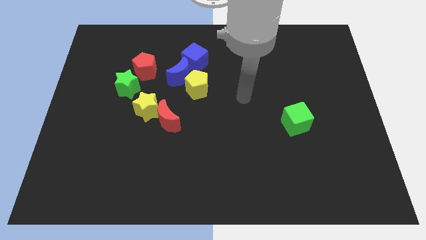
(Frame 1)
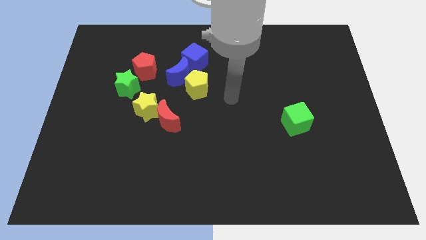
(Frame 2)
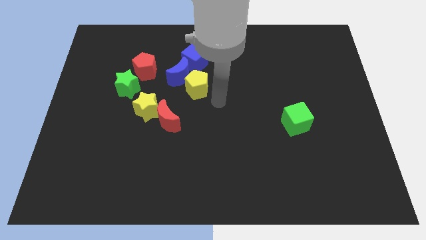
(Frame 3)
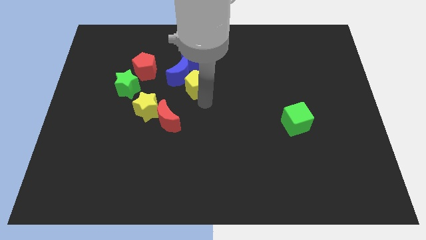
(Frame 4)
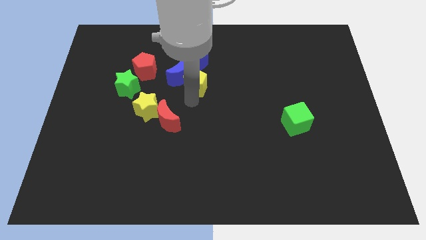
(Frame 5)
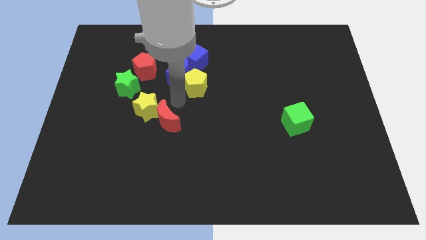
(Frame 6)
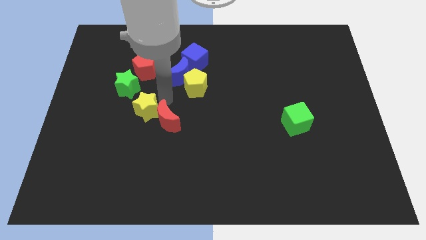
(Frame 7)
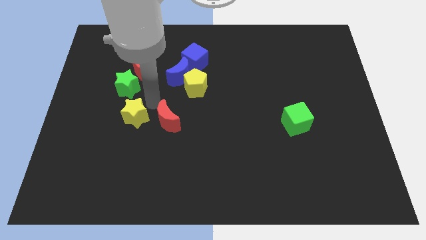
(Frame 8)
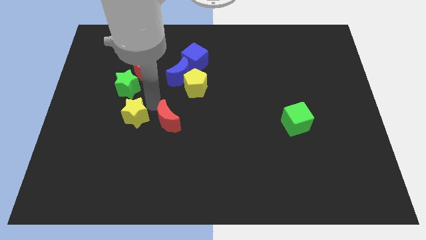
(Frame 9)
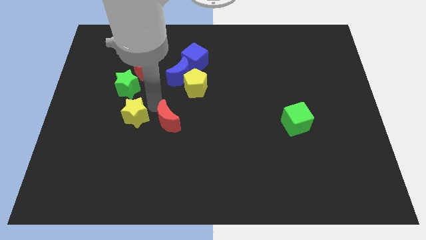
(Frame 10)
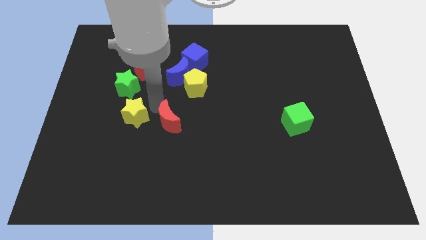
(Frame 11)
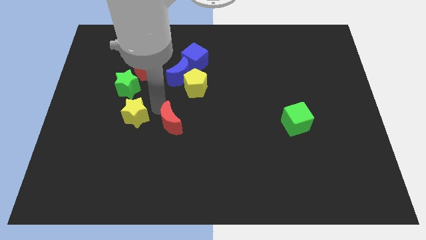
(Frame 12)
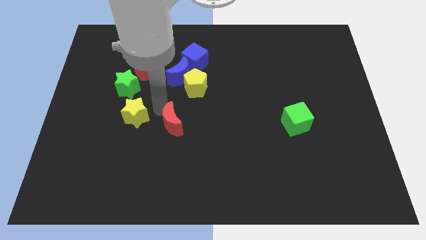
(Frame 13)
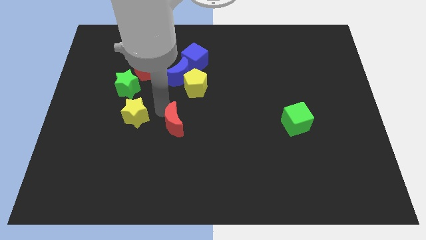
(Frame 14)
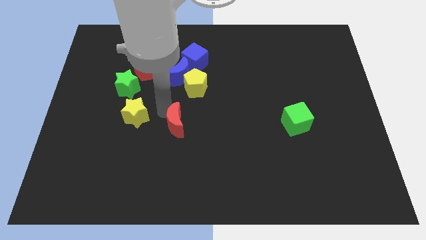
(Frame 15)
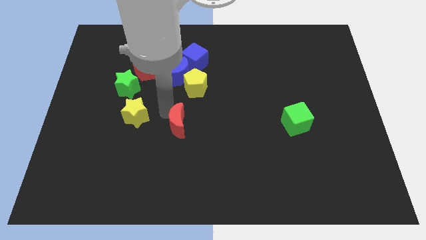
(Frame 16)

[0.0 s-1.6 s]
separate the red moon from the yellow star

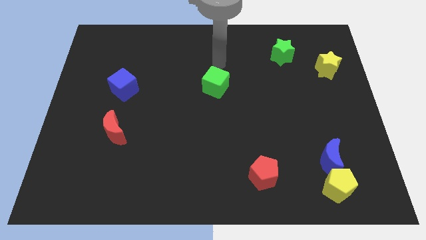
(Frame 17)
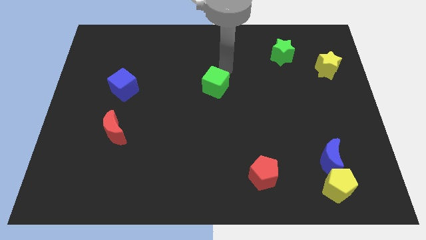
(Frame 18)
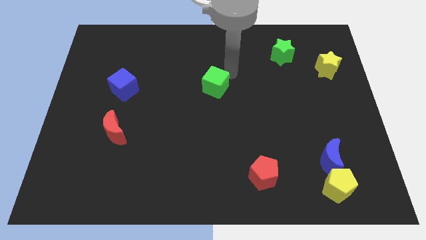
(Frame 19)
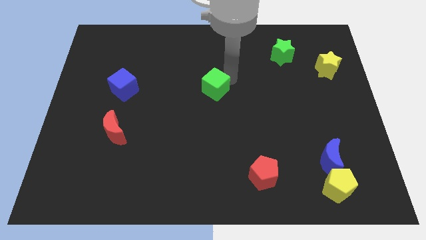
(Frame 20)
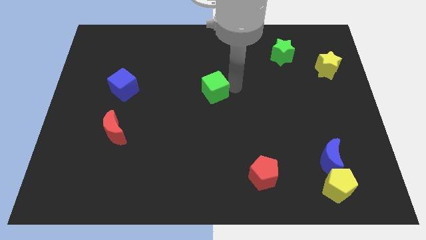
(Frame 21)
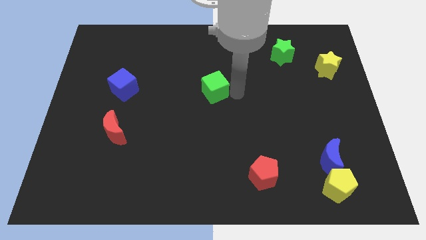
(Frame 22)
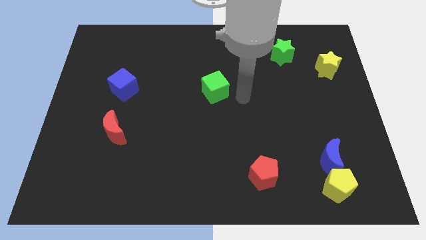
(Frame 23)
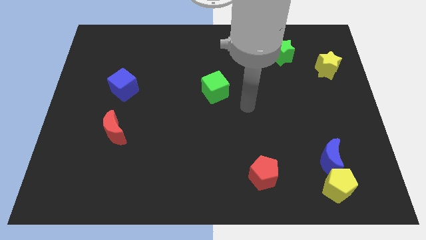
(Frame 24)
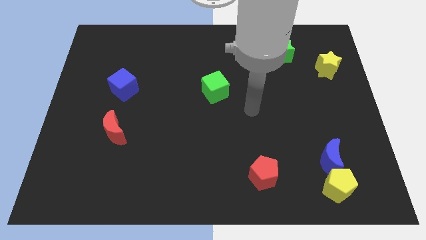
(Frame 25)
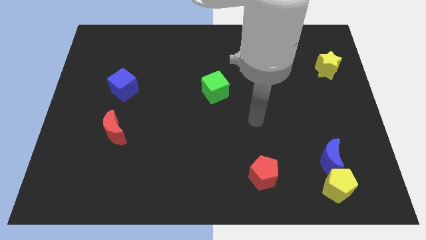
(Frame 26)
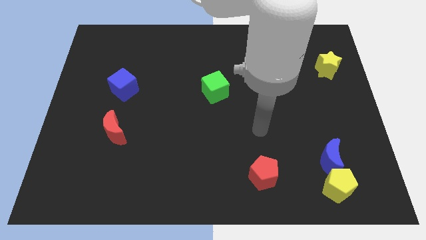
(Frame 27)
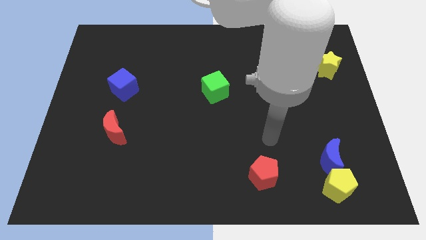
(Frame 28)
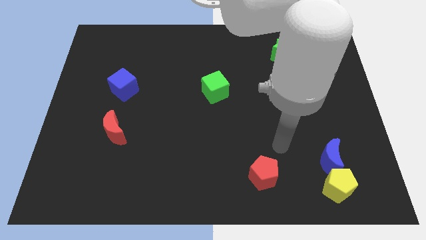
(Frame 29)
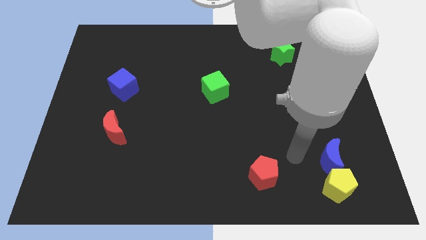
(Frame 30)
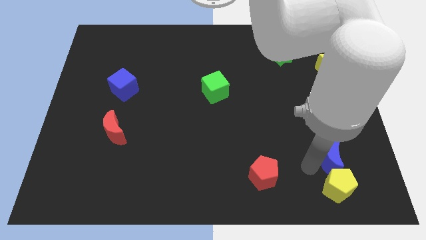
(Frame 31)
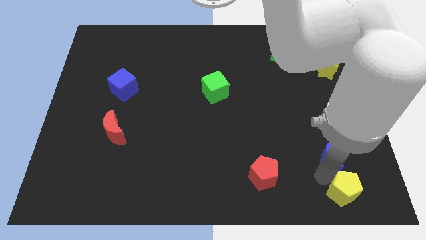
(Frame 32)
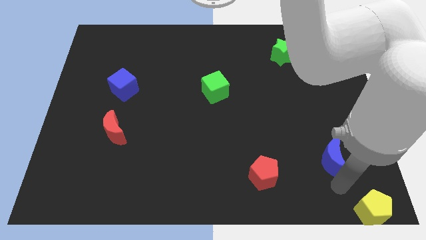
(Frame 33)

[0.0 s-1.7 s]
separate the blue moon from the yellow pentagon

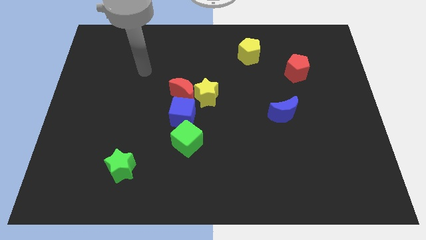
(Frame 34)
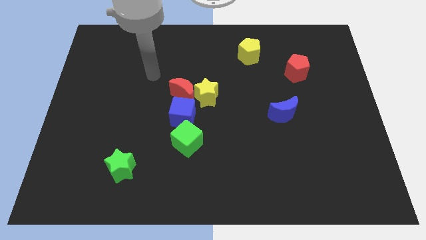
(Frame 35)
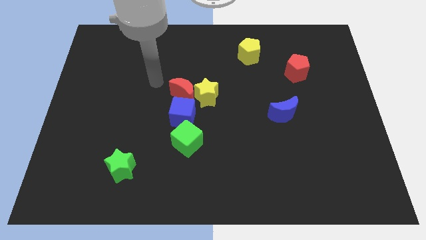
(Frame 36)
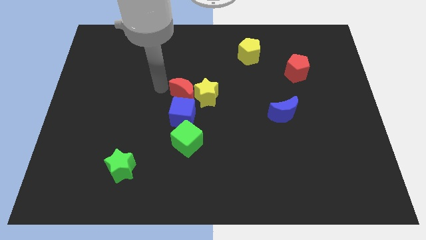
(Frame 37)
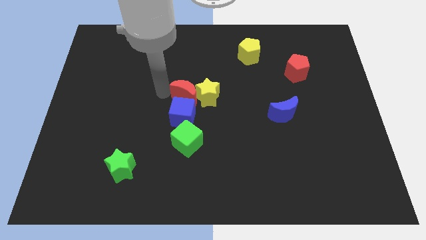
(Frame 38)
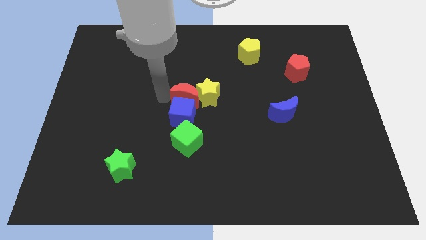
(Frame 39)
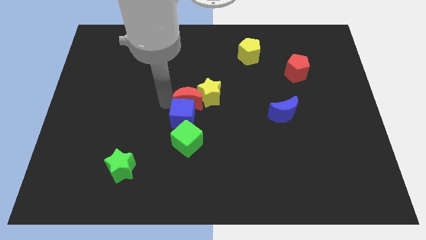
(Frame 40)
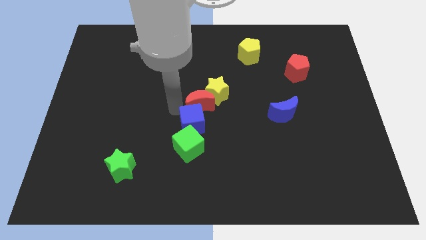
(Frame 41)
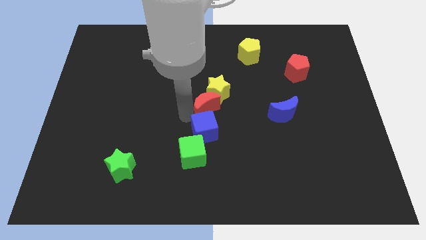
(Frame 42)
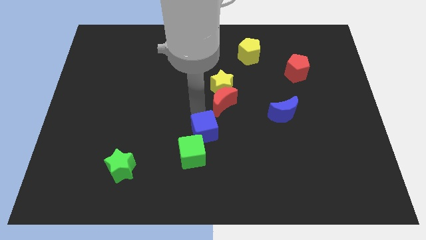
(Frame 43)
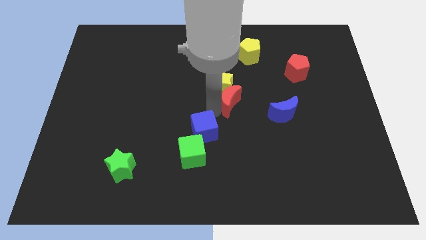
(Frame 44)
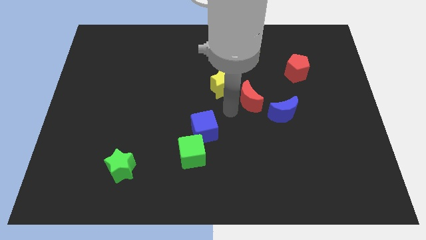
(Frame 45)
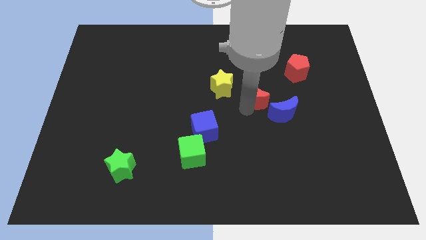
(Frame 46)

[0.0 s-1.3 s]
move the red moon away from the yellow star and blue cube

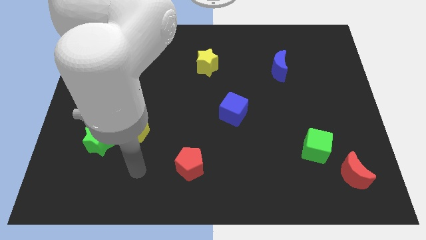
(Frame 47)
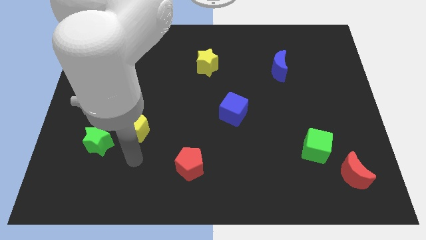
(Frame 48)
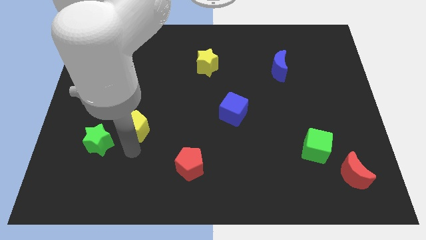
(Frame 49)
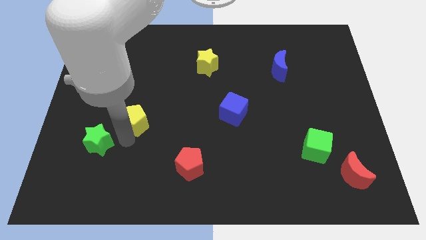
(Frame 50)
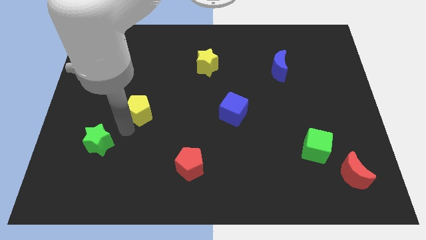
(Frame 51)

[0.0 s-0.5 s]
separate the green star from the yellow pentagon

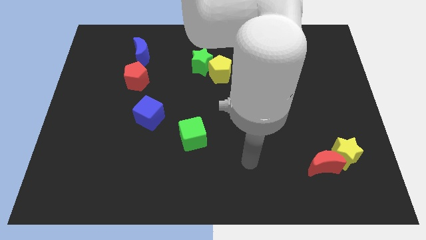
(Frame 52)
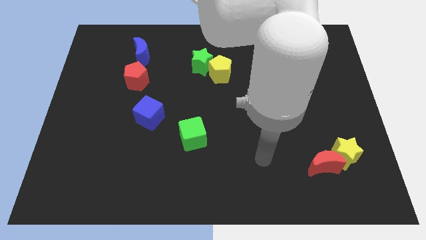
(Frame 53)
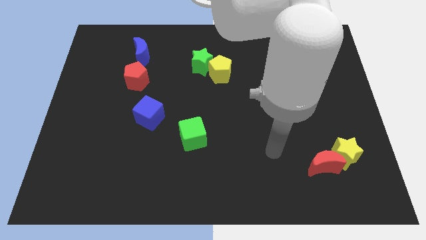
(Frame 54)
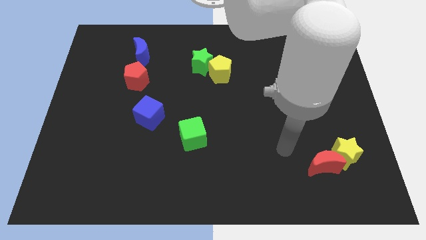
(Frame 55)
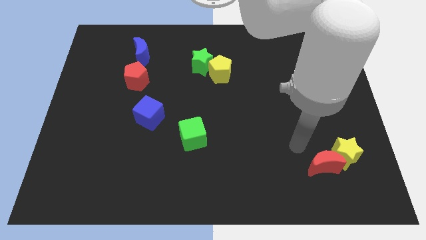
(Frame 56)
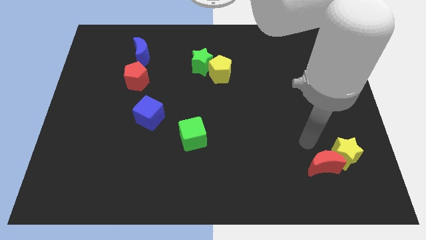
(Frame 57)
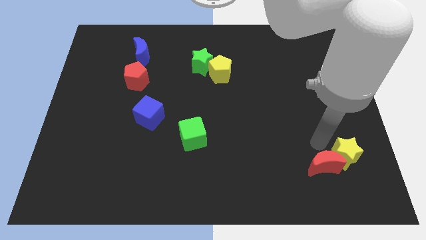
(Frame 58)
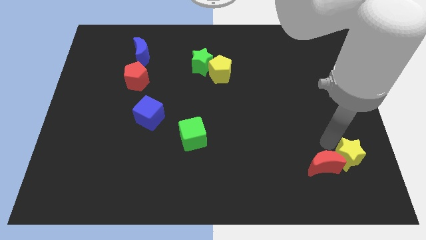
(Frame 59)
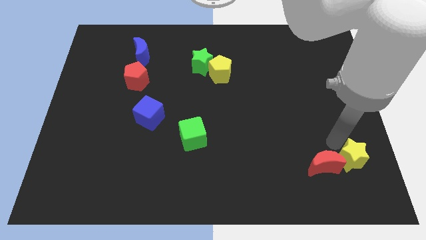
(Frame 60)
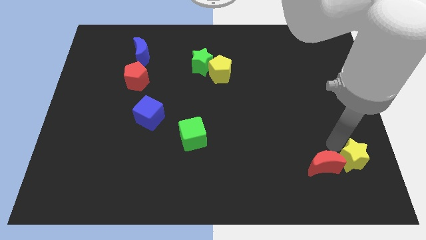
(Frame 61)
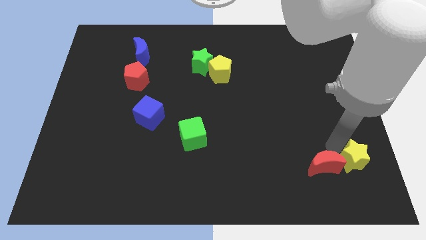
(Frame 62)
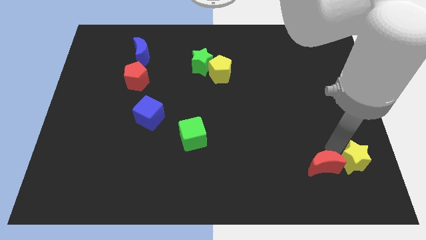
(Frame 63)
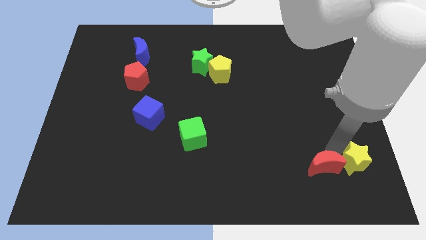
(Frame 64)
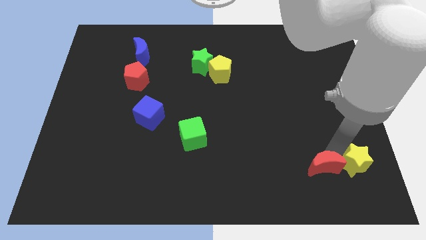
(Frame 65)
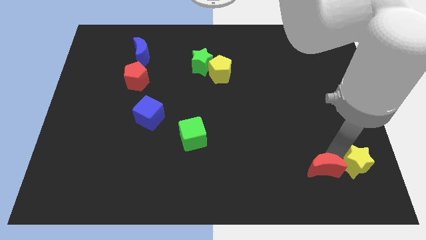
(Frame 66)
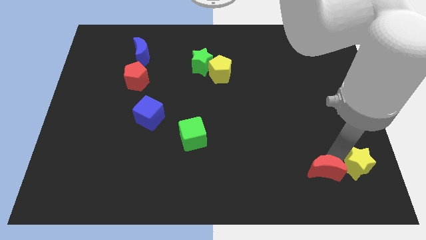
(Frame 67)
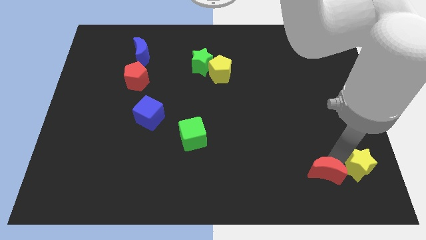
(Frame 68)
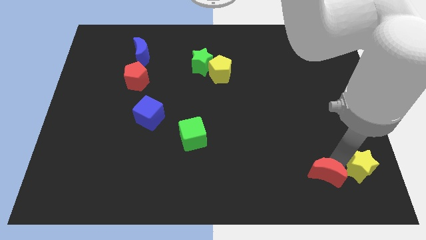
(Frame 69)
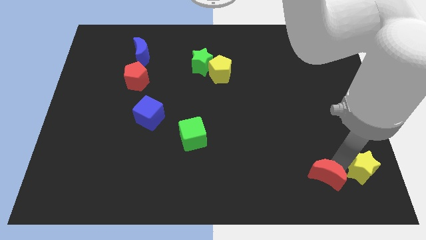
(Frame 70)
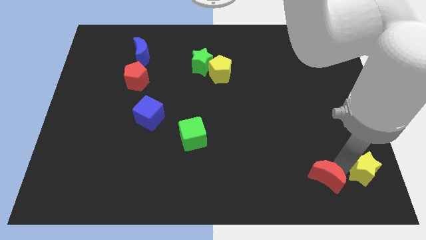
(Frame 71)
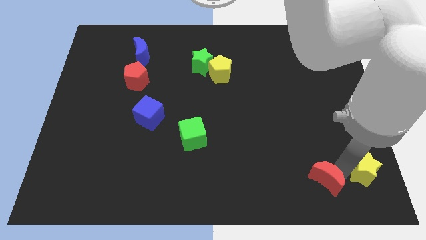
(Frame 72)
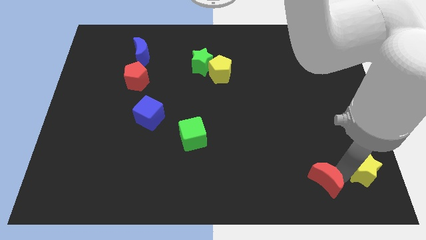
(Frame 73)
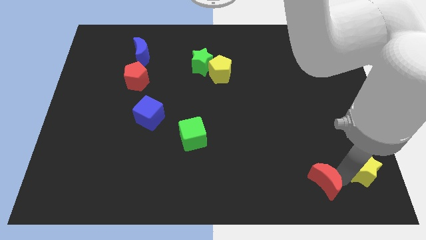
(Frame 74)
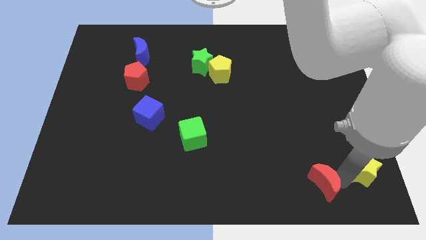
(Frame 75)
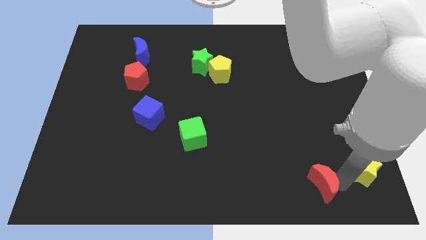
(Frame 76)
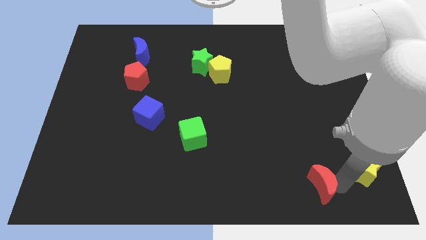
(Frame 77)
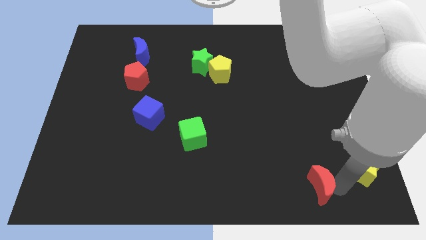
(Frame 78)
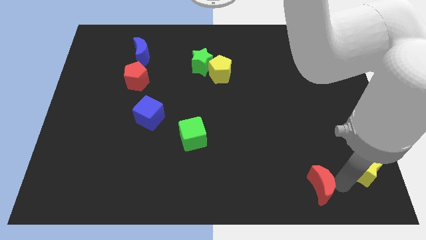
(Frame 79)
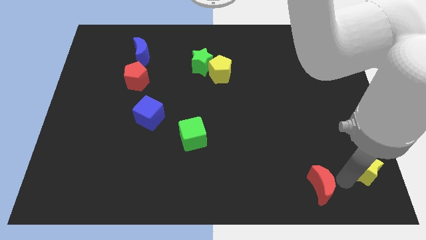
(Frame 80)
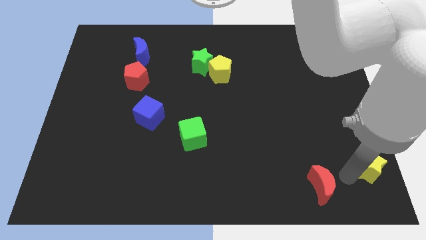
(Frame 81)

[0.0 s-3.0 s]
move the red moon away from the yellow star

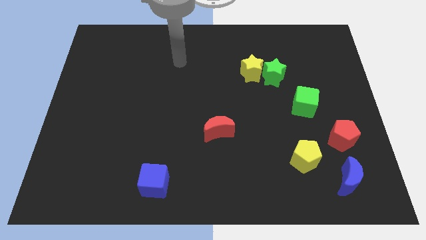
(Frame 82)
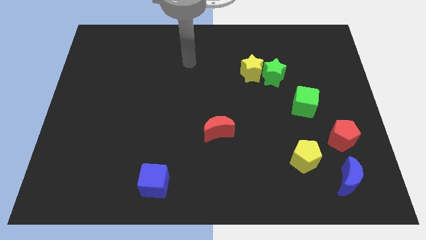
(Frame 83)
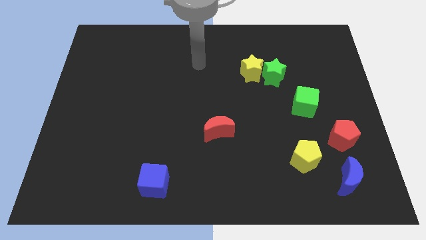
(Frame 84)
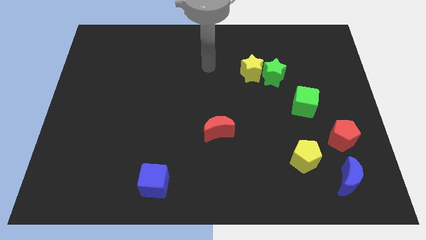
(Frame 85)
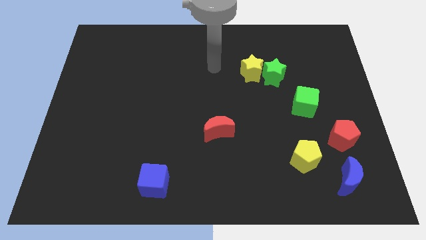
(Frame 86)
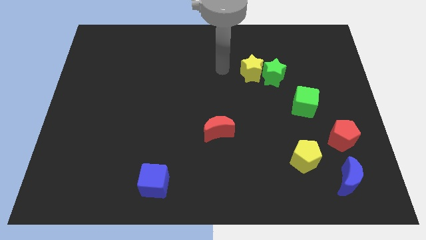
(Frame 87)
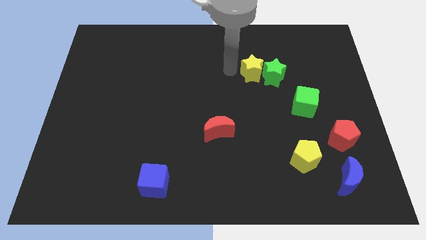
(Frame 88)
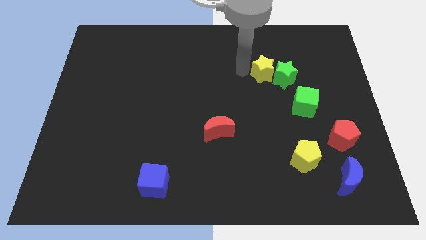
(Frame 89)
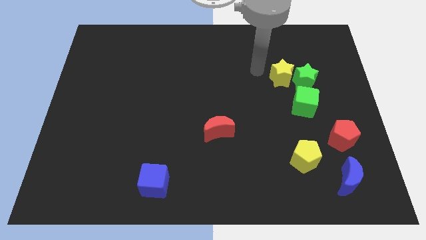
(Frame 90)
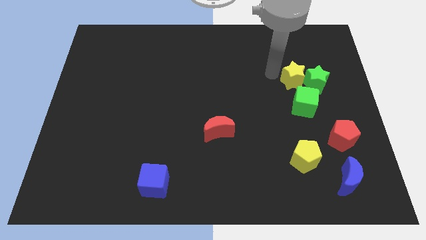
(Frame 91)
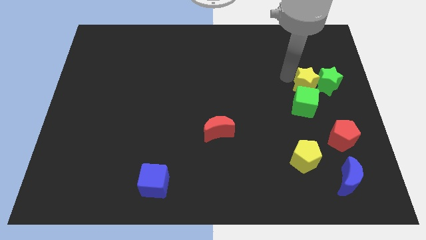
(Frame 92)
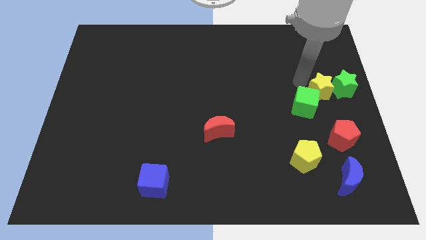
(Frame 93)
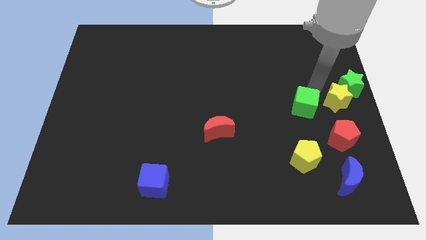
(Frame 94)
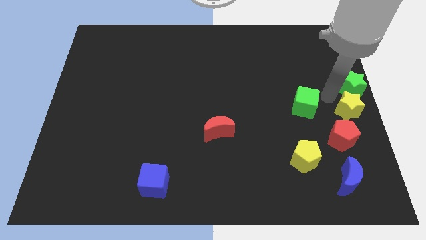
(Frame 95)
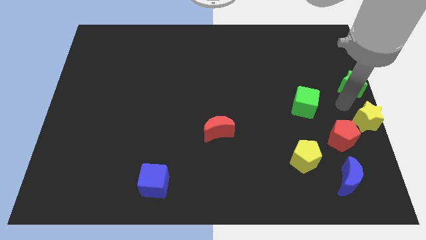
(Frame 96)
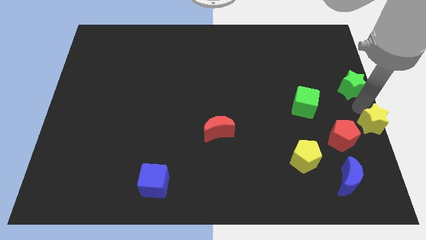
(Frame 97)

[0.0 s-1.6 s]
separate the green star from the yellow star
